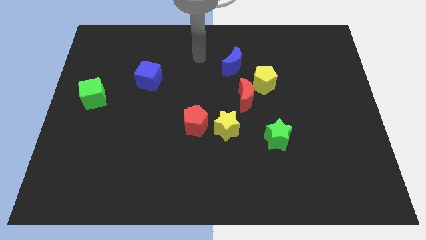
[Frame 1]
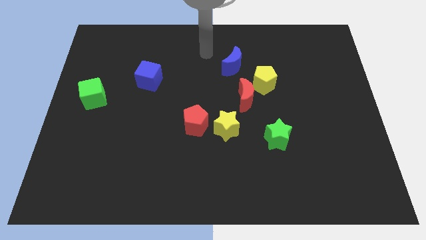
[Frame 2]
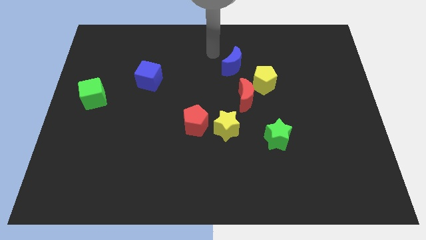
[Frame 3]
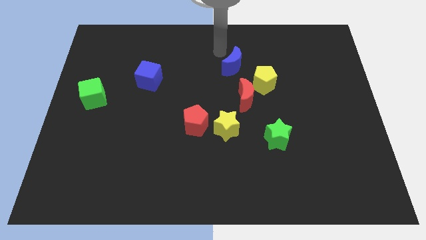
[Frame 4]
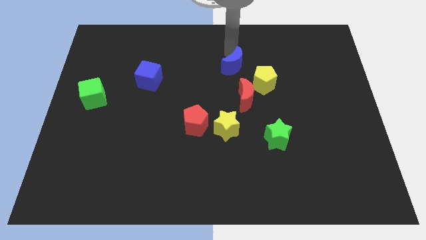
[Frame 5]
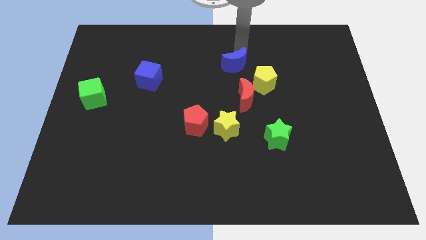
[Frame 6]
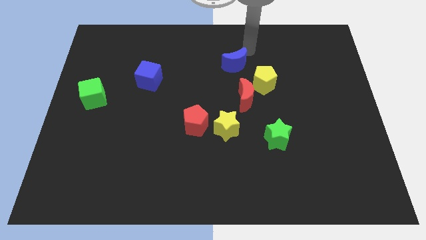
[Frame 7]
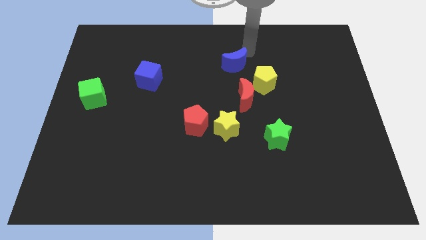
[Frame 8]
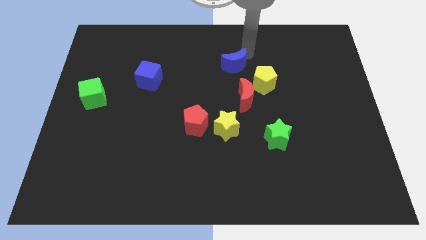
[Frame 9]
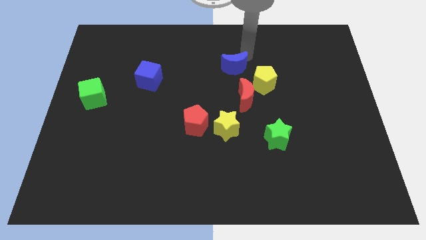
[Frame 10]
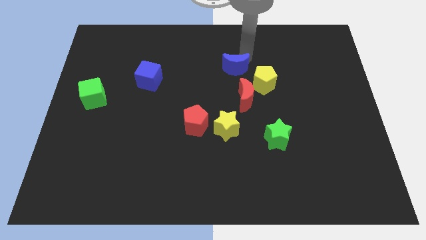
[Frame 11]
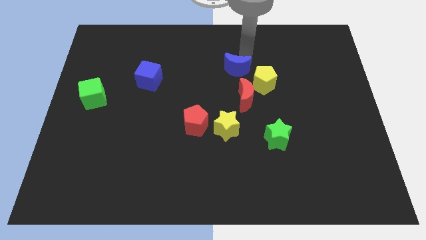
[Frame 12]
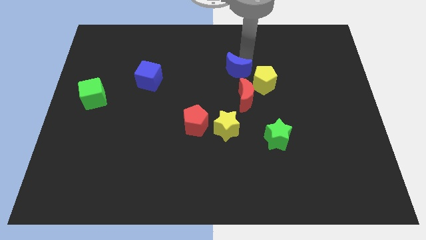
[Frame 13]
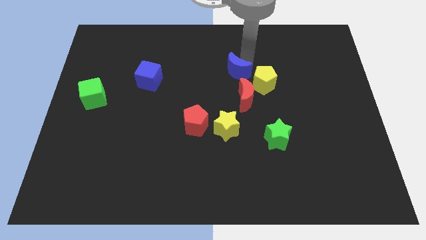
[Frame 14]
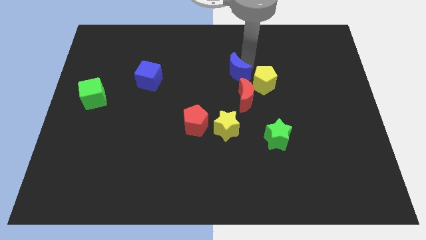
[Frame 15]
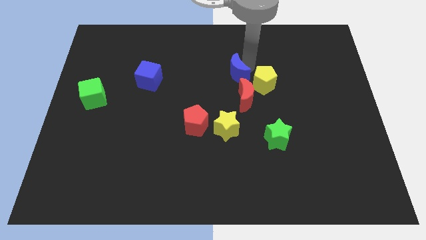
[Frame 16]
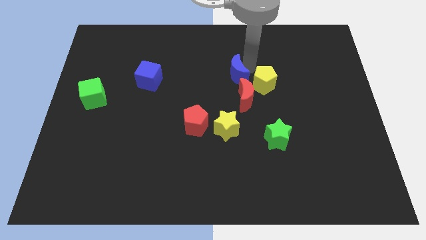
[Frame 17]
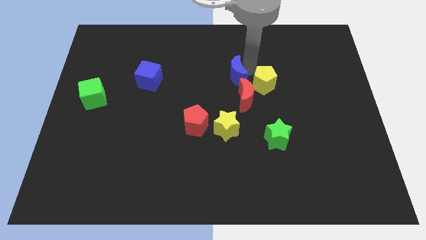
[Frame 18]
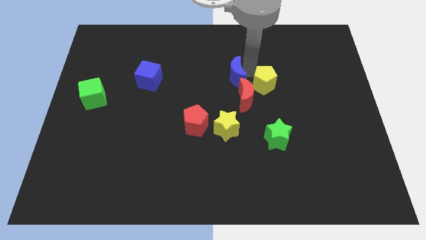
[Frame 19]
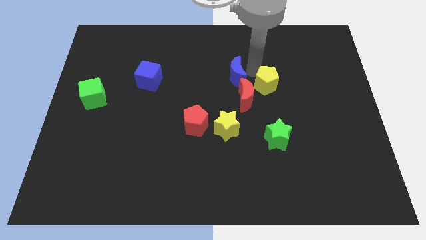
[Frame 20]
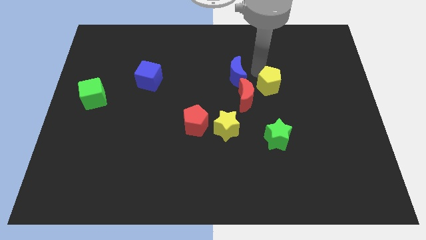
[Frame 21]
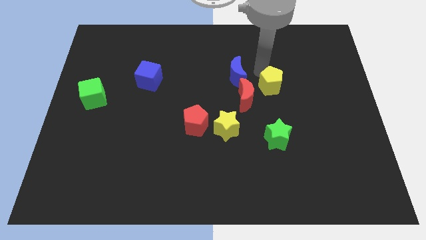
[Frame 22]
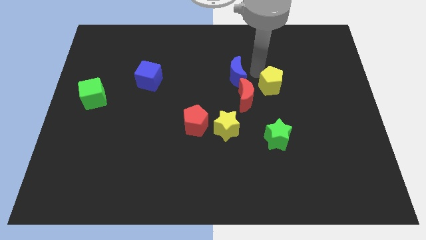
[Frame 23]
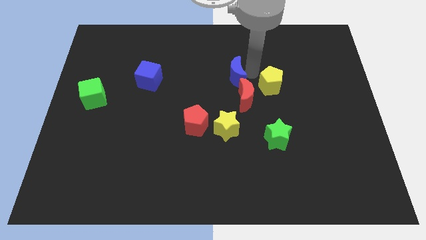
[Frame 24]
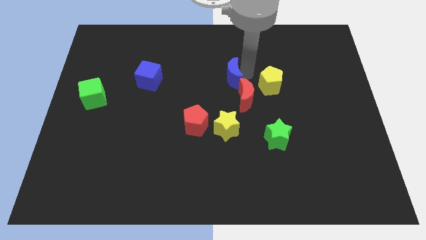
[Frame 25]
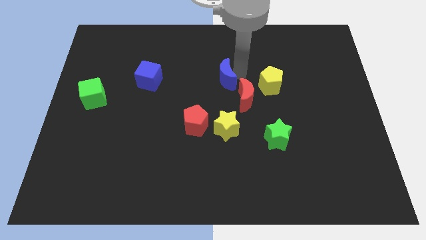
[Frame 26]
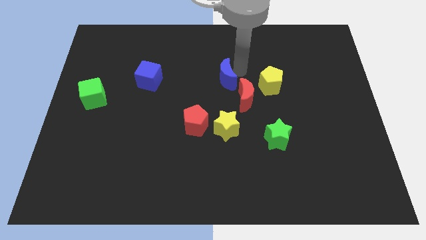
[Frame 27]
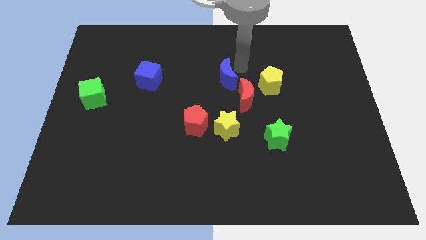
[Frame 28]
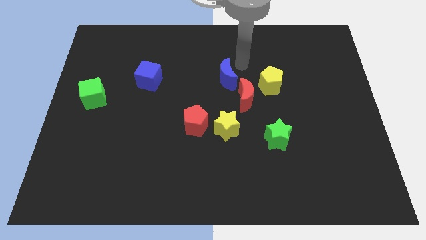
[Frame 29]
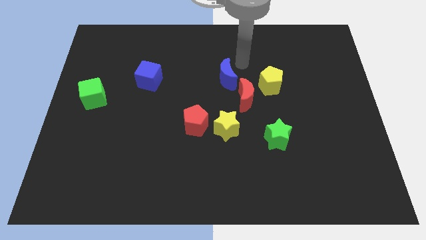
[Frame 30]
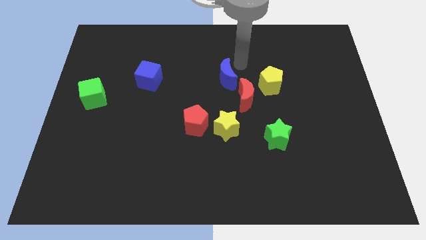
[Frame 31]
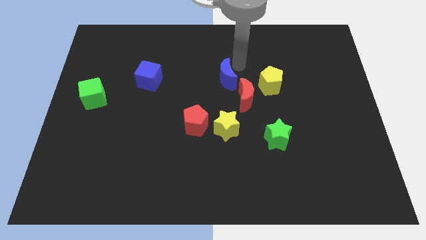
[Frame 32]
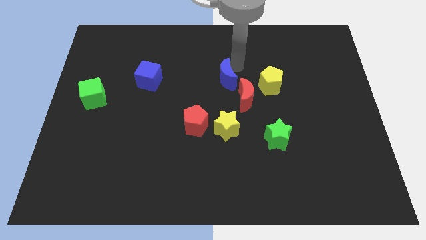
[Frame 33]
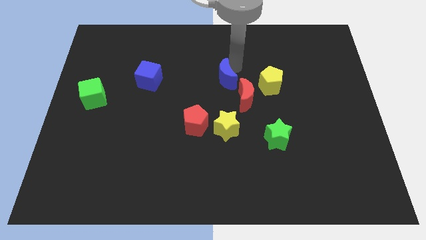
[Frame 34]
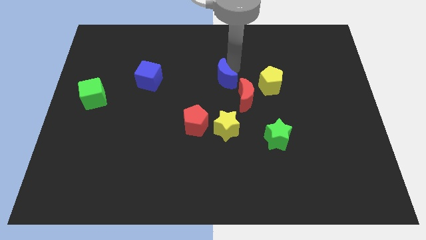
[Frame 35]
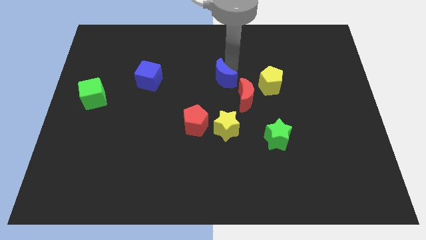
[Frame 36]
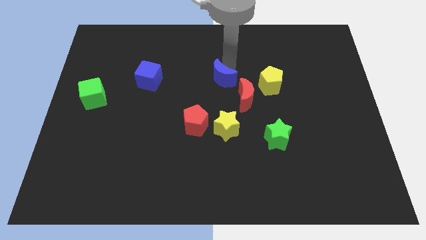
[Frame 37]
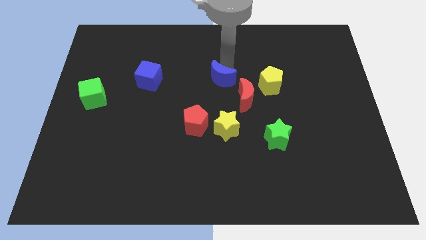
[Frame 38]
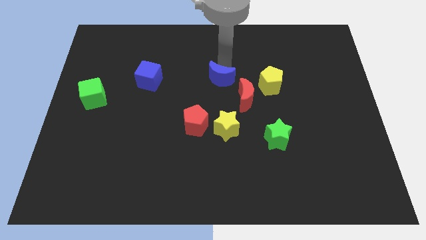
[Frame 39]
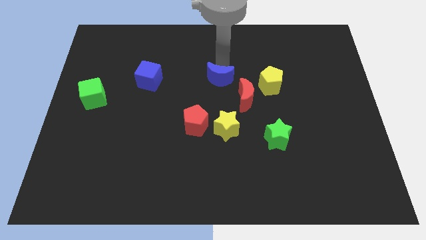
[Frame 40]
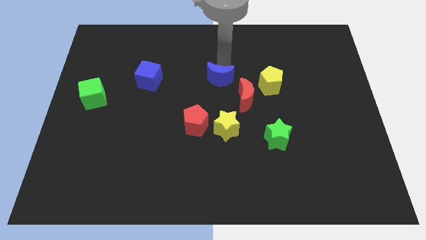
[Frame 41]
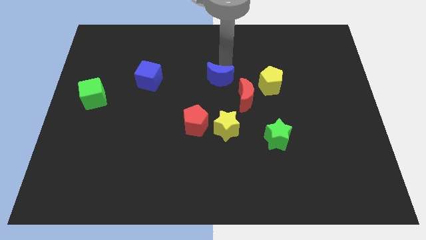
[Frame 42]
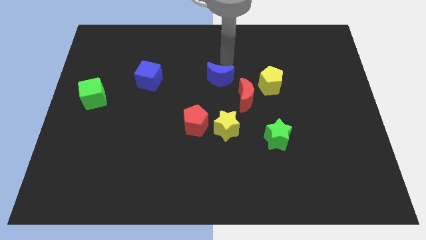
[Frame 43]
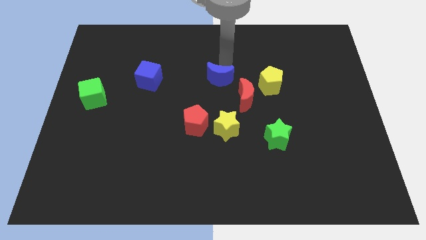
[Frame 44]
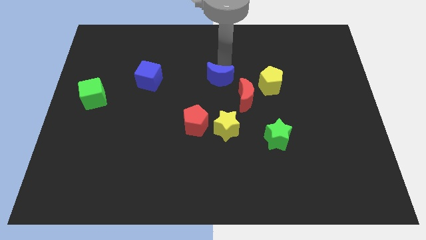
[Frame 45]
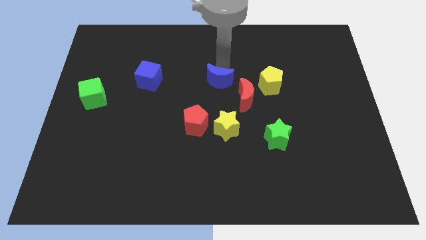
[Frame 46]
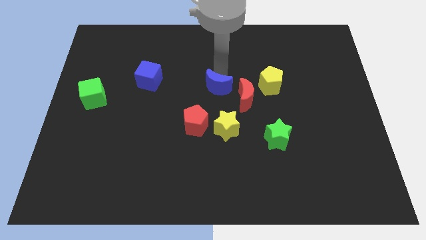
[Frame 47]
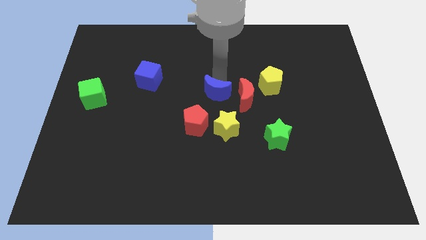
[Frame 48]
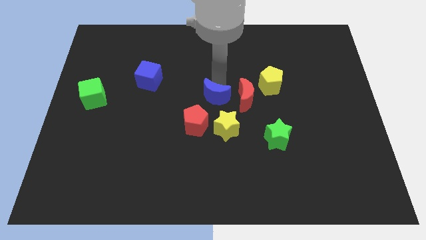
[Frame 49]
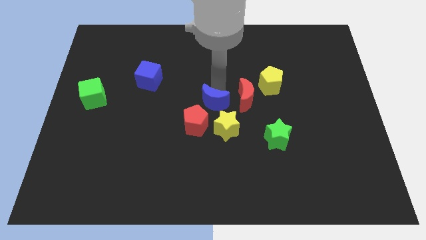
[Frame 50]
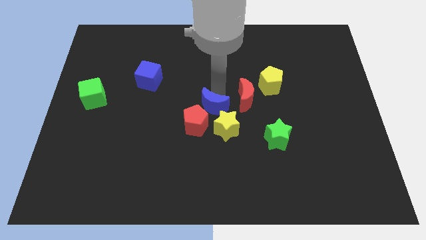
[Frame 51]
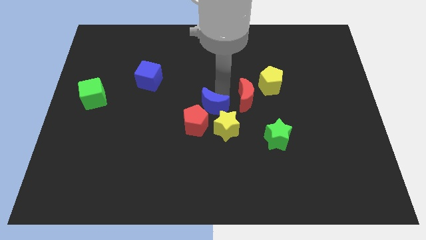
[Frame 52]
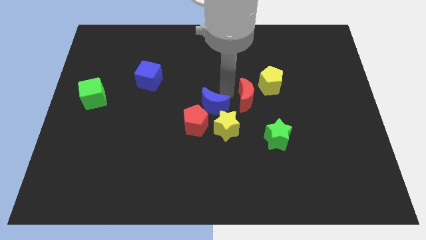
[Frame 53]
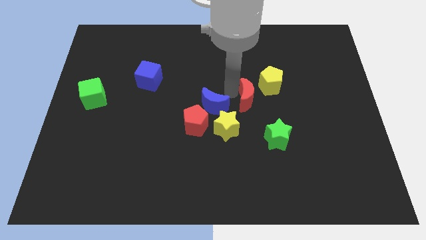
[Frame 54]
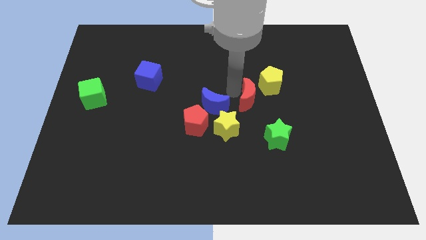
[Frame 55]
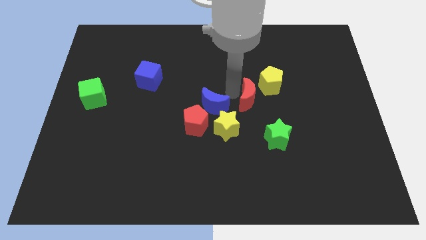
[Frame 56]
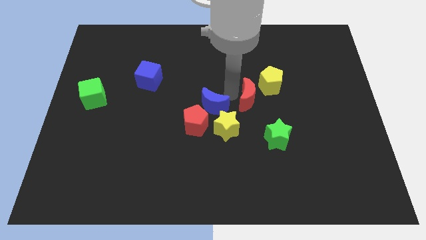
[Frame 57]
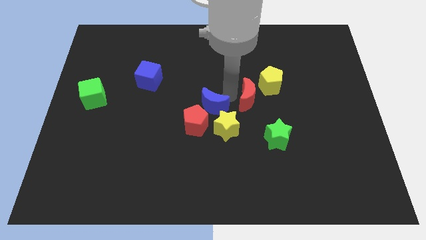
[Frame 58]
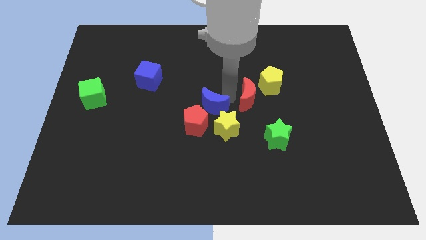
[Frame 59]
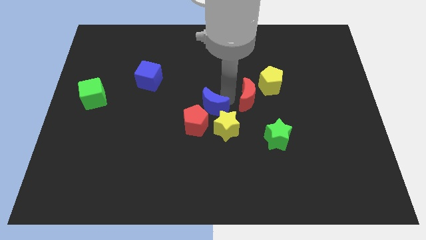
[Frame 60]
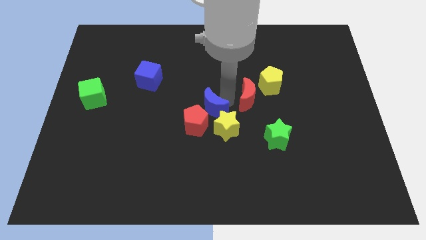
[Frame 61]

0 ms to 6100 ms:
move the blue moon close to the red pentagon

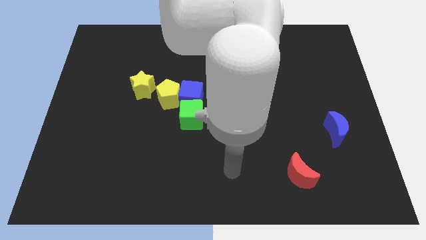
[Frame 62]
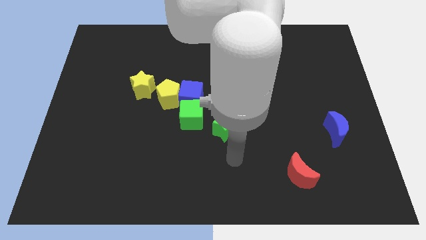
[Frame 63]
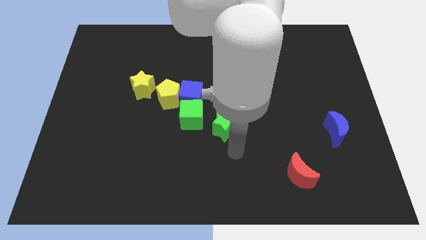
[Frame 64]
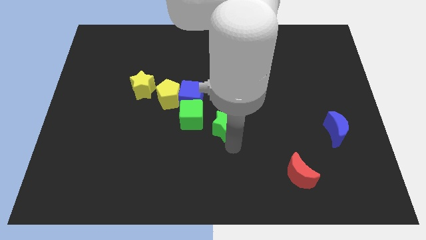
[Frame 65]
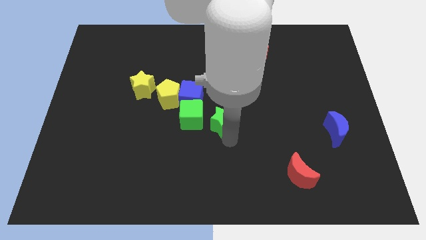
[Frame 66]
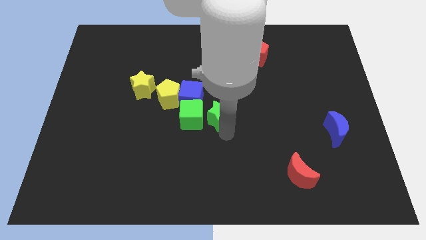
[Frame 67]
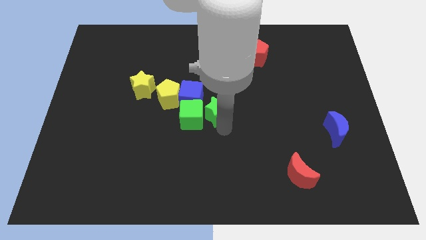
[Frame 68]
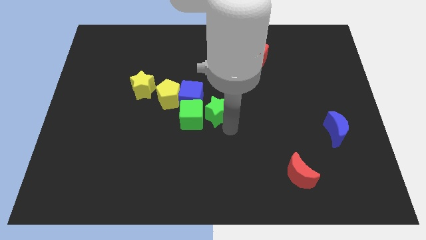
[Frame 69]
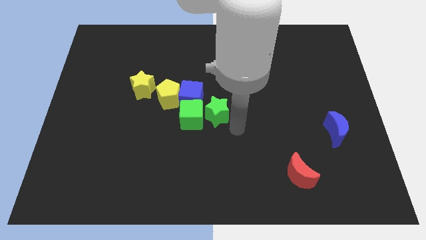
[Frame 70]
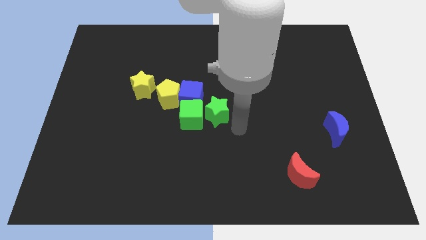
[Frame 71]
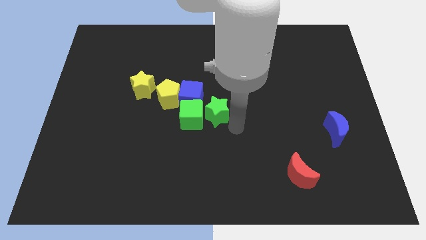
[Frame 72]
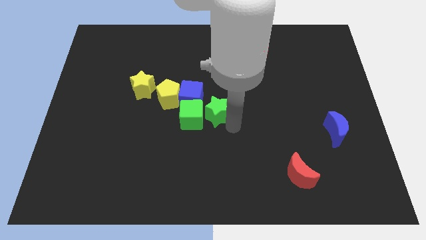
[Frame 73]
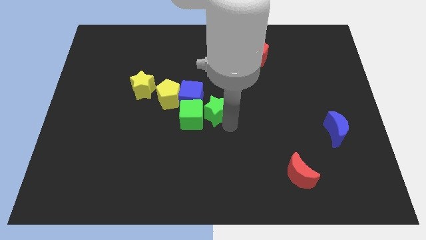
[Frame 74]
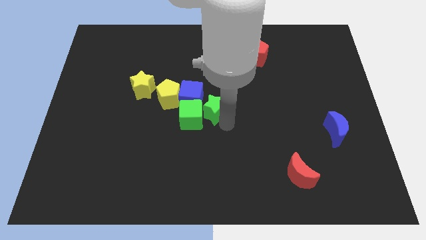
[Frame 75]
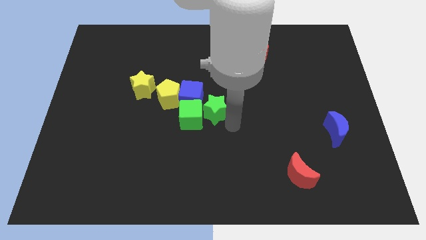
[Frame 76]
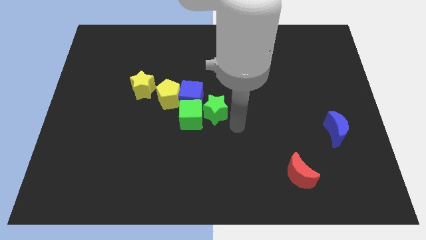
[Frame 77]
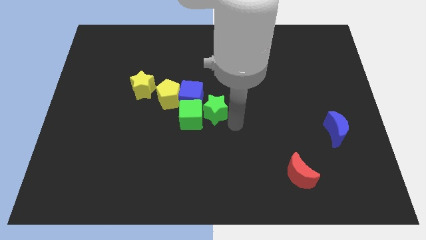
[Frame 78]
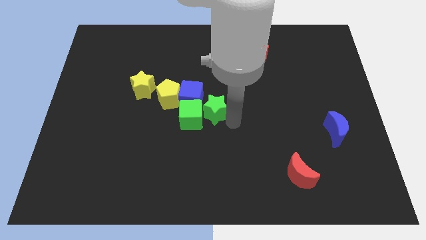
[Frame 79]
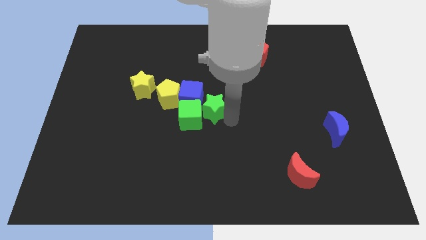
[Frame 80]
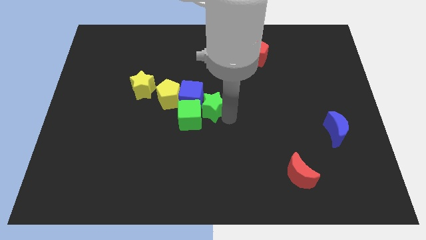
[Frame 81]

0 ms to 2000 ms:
move the green star to the blue cube
